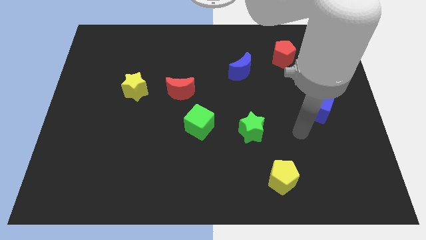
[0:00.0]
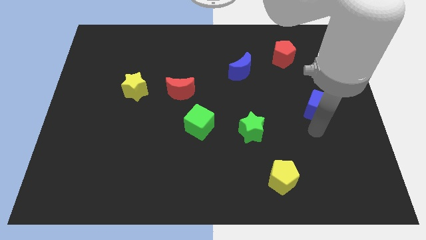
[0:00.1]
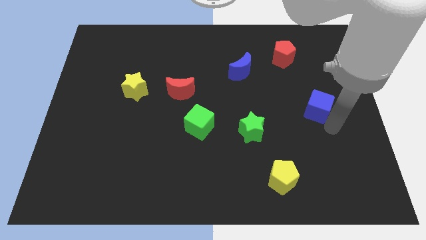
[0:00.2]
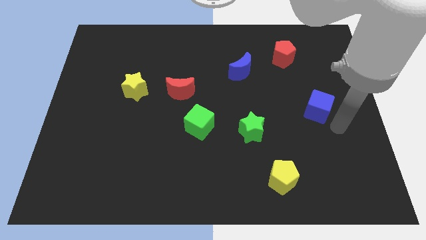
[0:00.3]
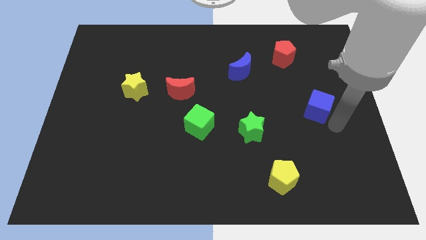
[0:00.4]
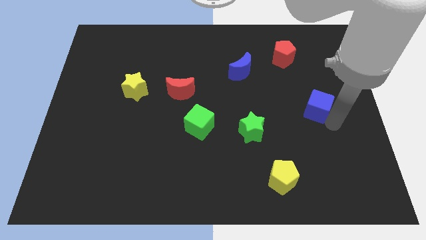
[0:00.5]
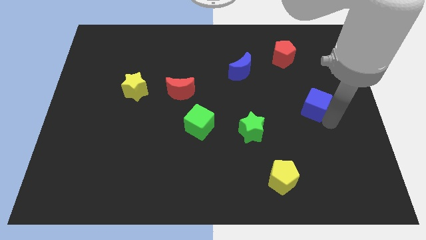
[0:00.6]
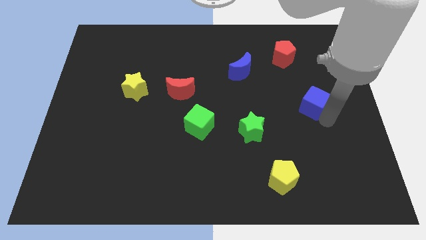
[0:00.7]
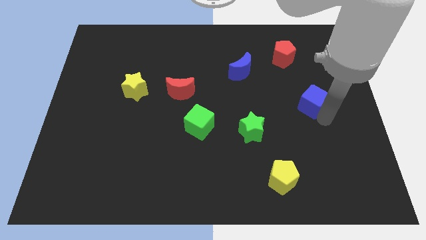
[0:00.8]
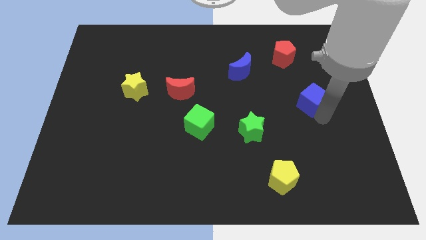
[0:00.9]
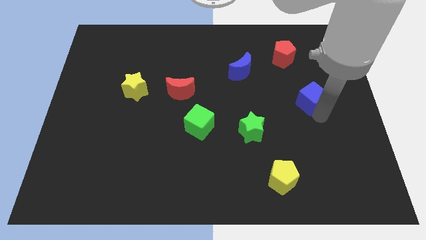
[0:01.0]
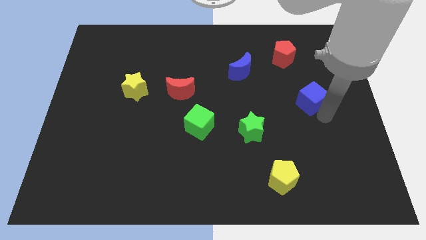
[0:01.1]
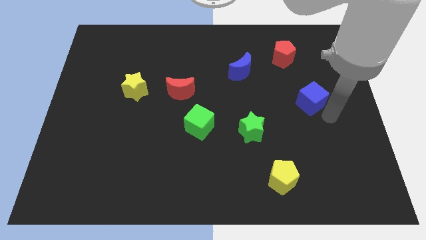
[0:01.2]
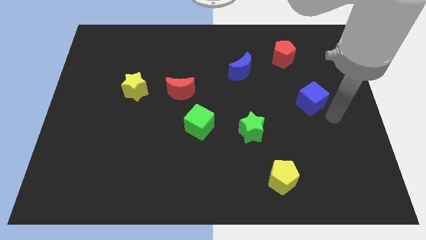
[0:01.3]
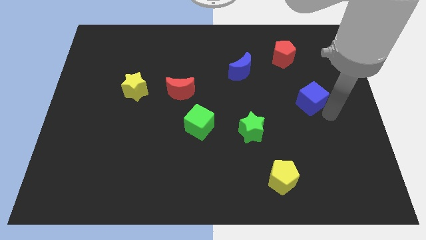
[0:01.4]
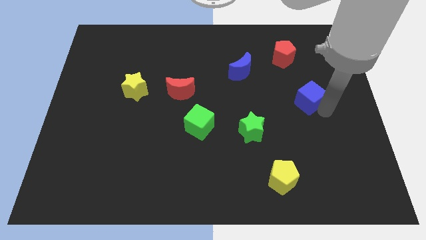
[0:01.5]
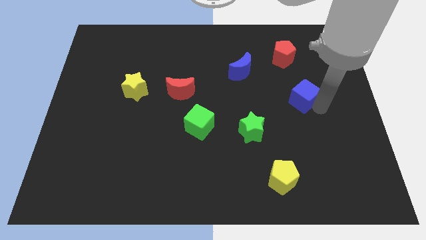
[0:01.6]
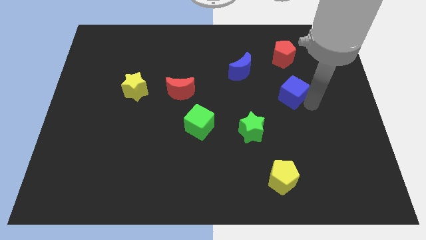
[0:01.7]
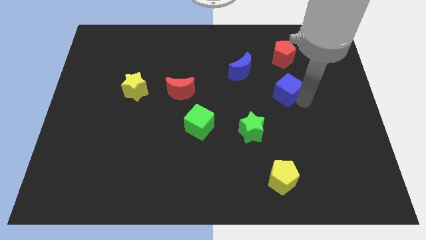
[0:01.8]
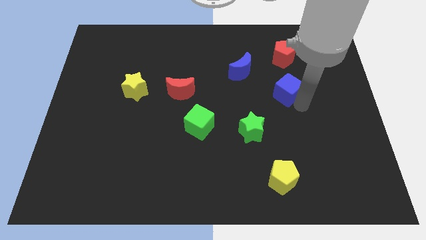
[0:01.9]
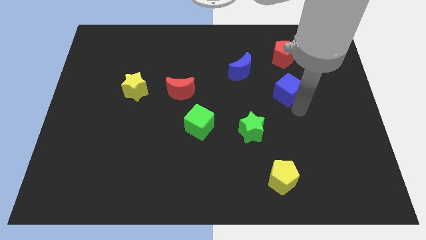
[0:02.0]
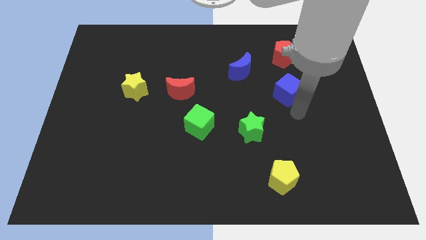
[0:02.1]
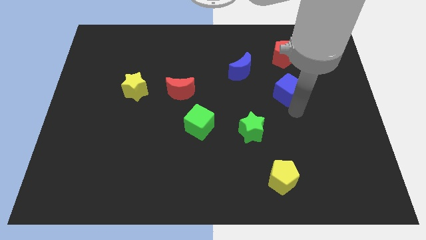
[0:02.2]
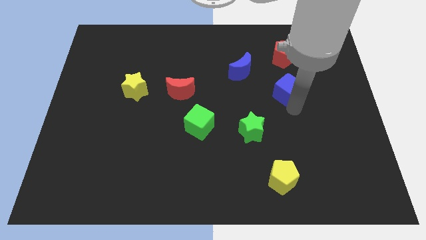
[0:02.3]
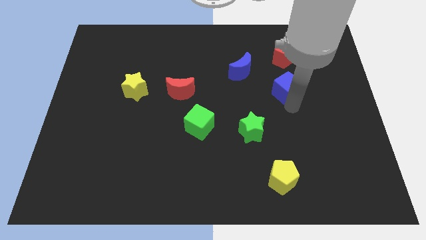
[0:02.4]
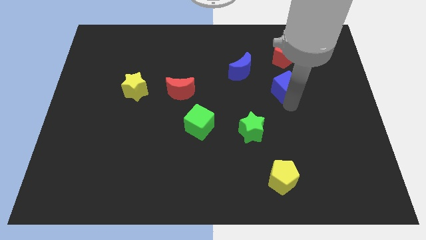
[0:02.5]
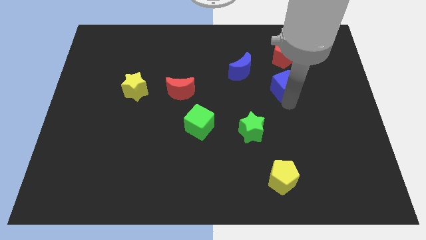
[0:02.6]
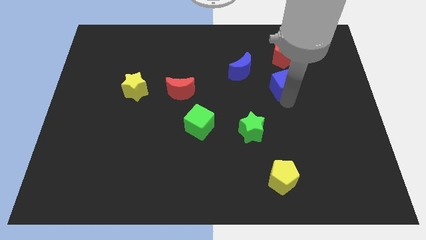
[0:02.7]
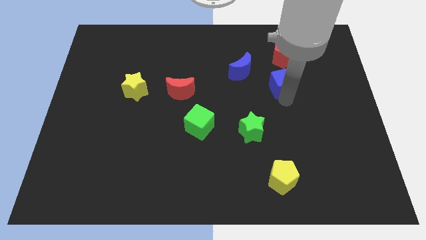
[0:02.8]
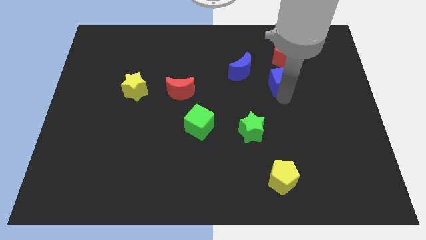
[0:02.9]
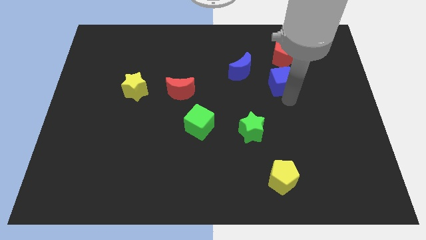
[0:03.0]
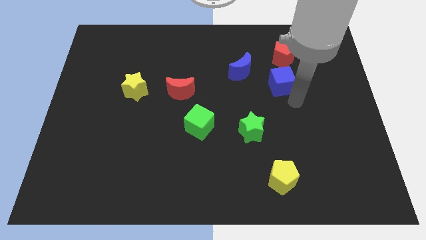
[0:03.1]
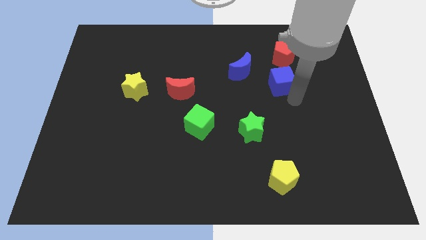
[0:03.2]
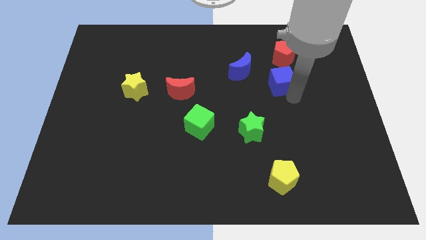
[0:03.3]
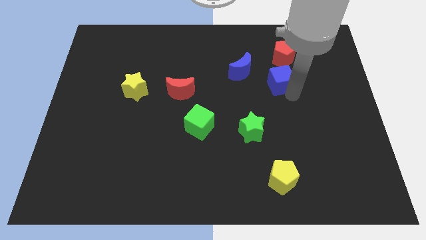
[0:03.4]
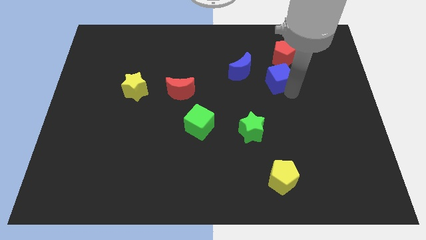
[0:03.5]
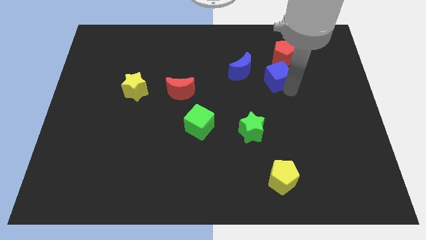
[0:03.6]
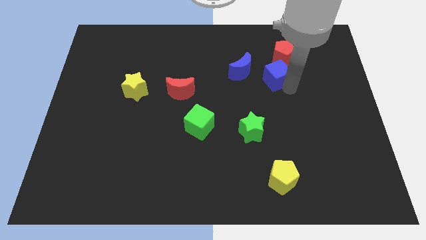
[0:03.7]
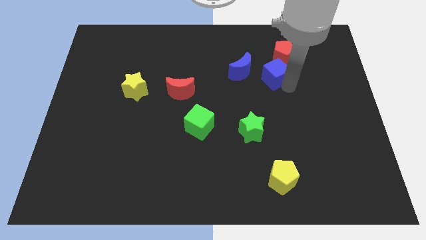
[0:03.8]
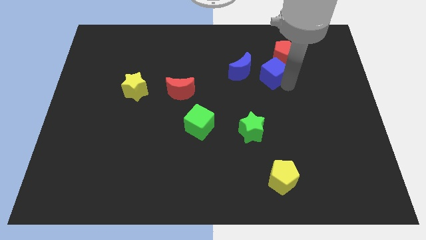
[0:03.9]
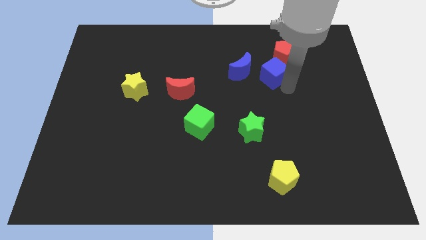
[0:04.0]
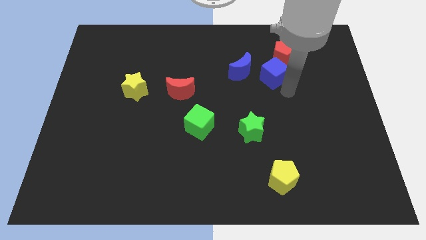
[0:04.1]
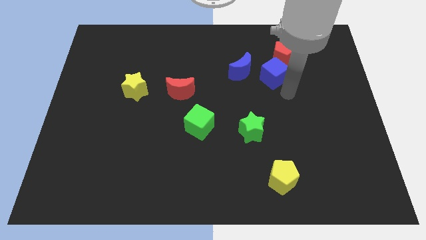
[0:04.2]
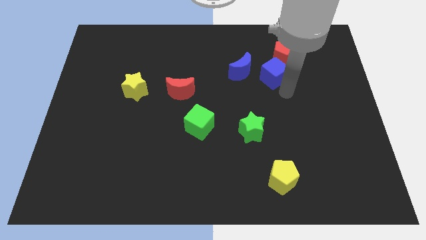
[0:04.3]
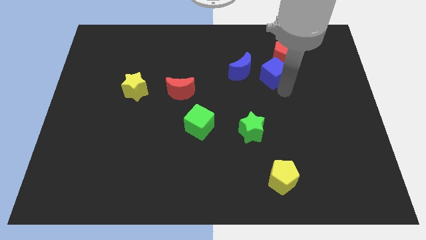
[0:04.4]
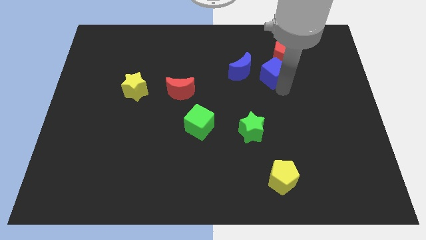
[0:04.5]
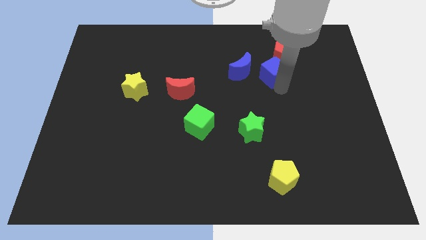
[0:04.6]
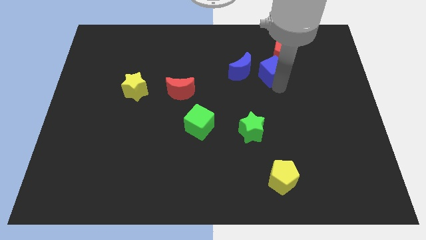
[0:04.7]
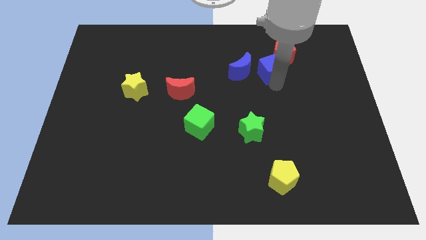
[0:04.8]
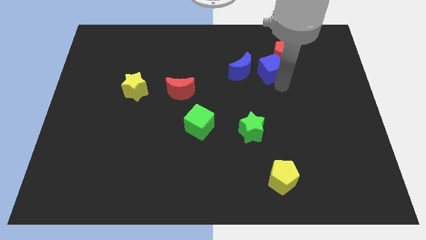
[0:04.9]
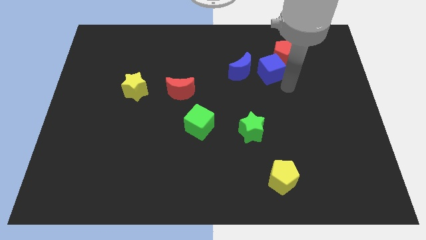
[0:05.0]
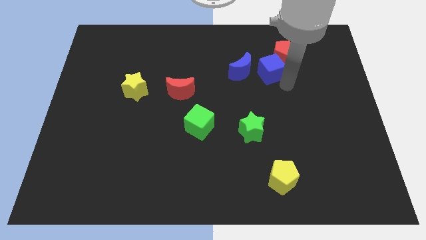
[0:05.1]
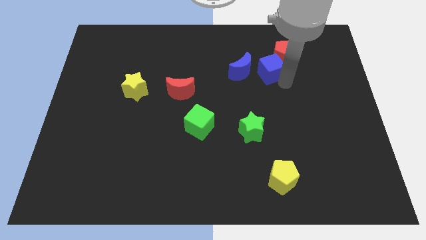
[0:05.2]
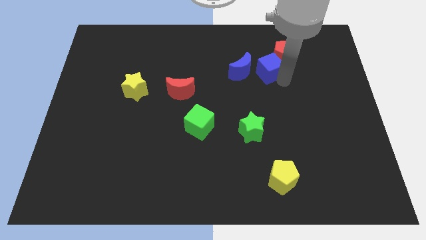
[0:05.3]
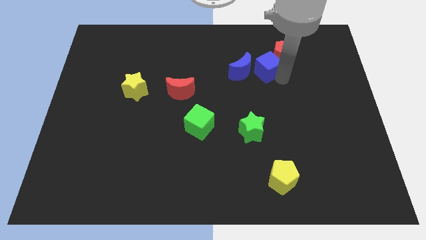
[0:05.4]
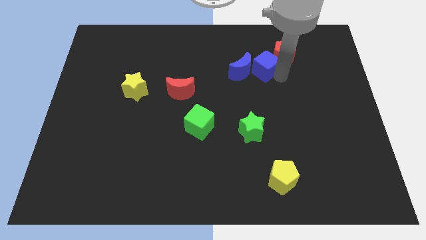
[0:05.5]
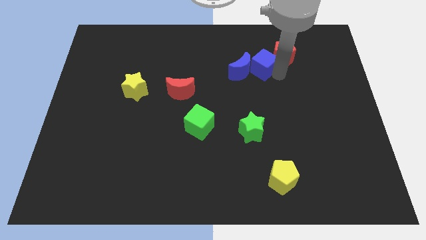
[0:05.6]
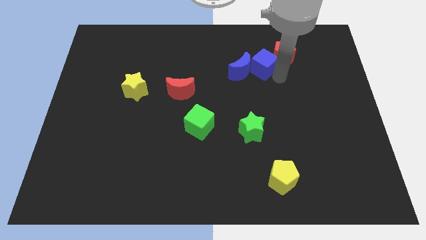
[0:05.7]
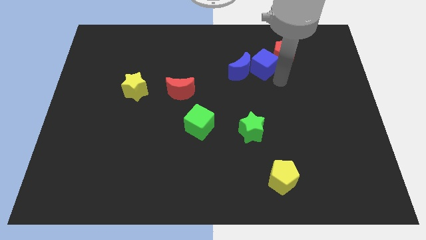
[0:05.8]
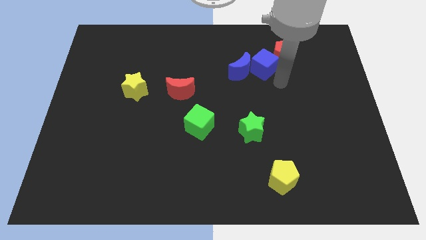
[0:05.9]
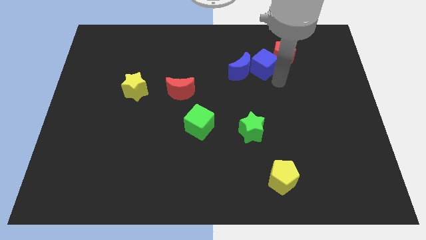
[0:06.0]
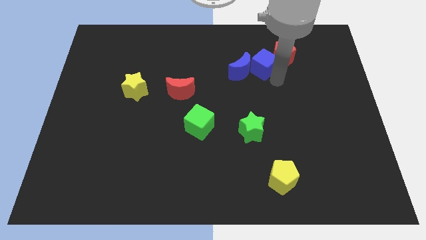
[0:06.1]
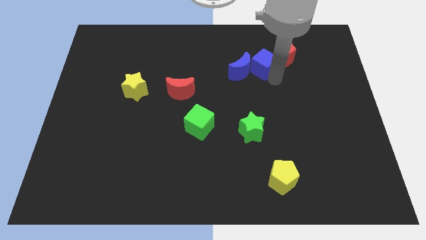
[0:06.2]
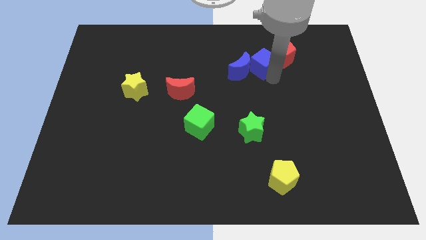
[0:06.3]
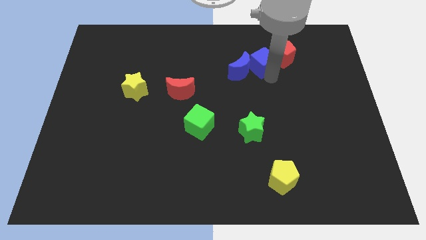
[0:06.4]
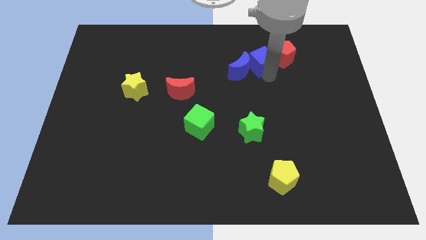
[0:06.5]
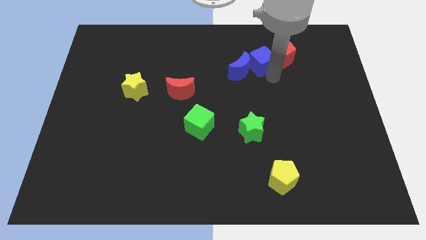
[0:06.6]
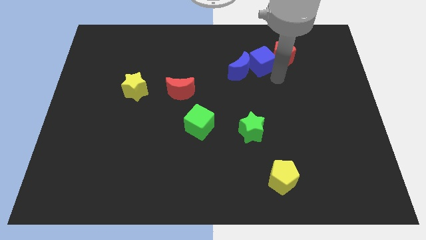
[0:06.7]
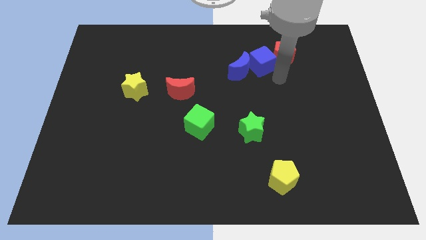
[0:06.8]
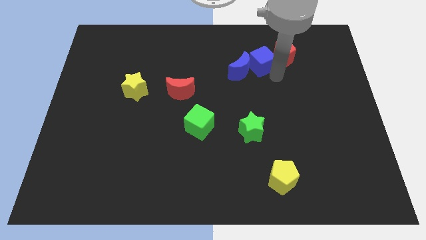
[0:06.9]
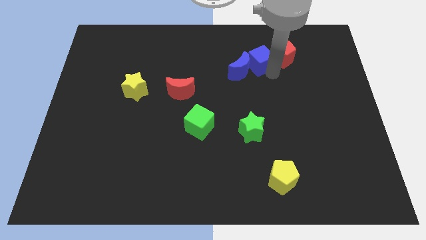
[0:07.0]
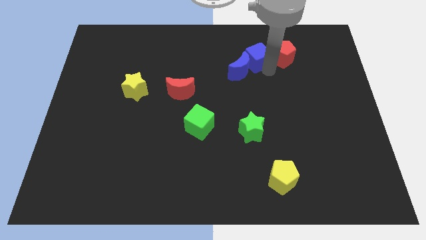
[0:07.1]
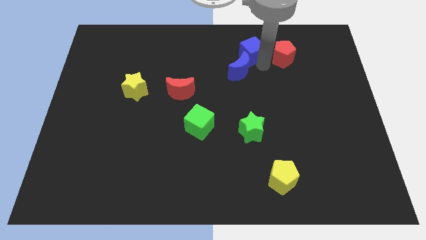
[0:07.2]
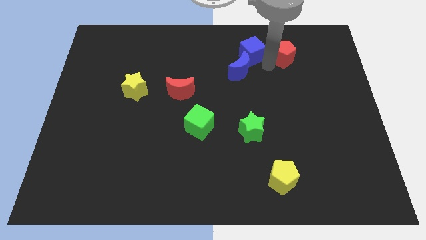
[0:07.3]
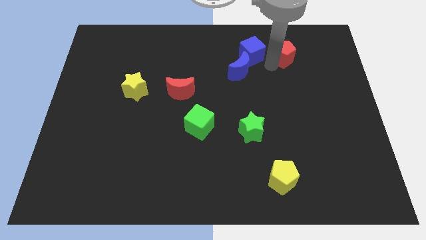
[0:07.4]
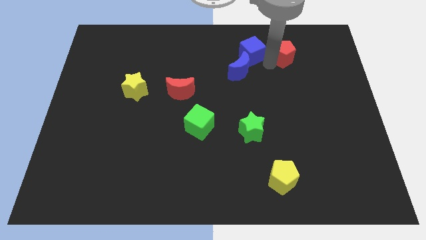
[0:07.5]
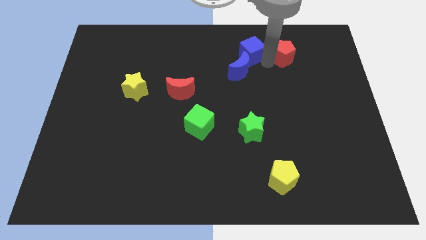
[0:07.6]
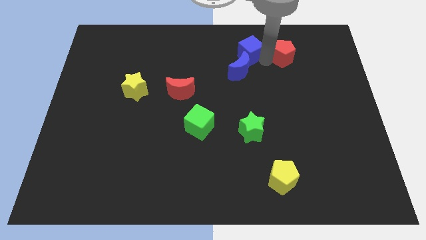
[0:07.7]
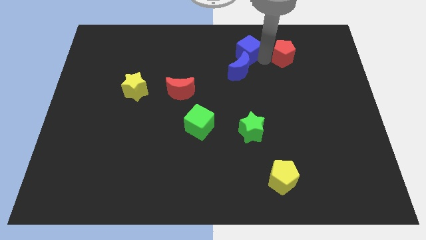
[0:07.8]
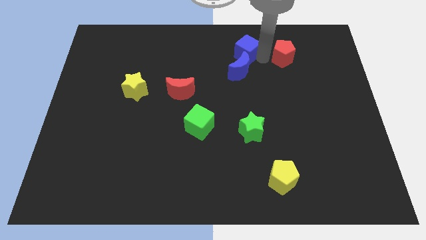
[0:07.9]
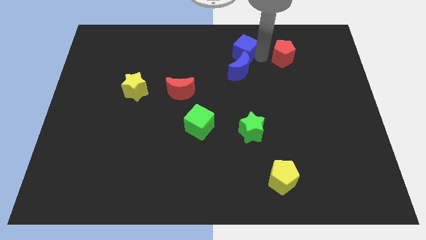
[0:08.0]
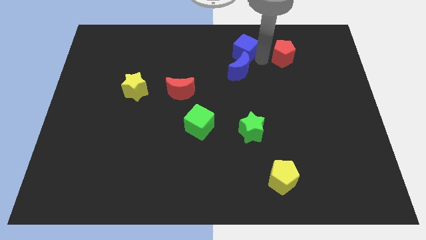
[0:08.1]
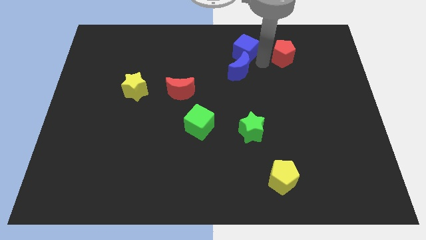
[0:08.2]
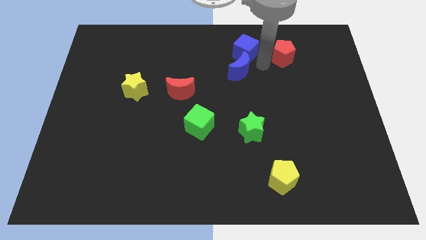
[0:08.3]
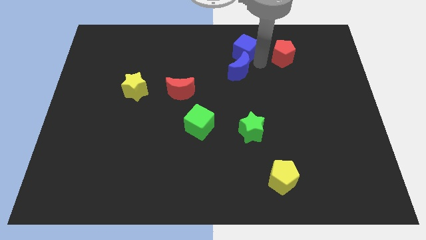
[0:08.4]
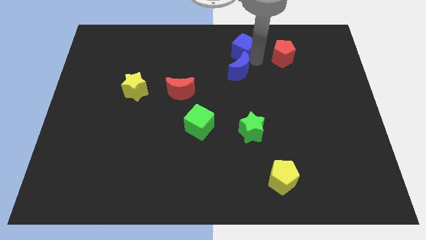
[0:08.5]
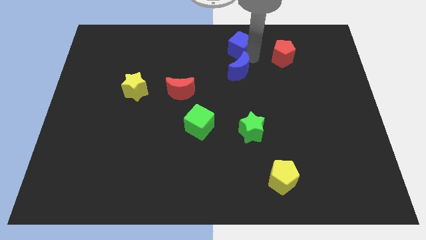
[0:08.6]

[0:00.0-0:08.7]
push the blue cube to the top
